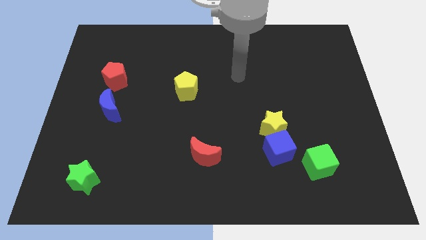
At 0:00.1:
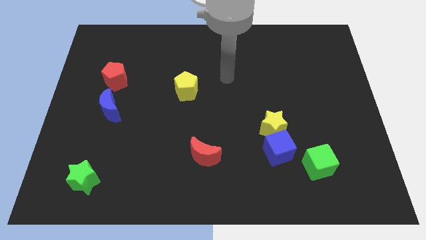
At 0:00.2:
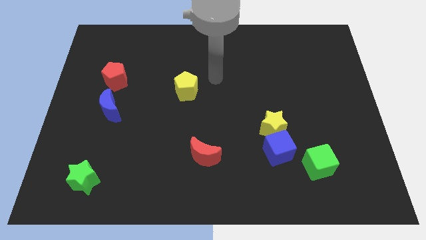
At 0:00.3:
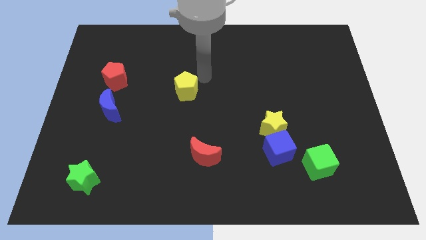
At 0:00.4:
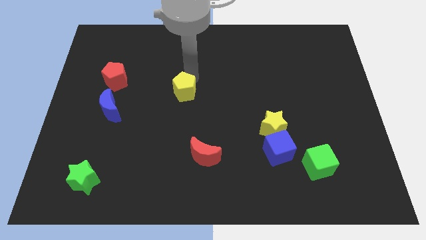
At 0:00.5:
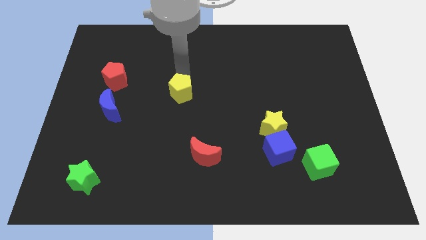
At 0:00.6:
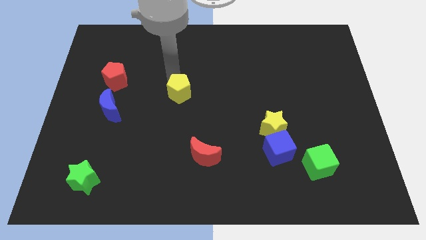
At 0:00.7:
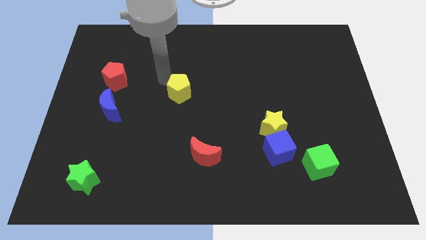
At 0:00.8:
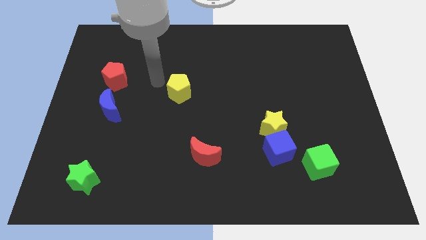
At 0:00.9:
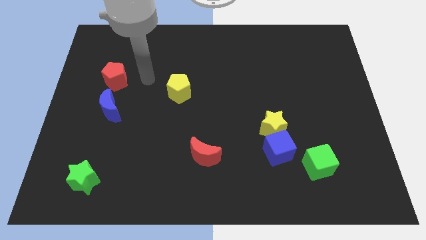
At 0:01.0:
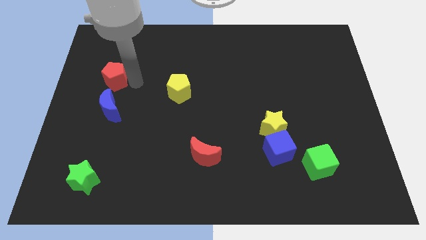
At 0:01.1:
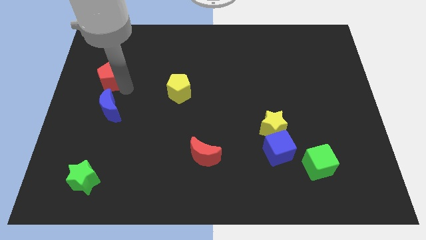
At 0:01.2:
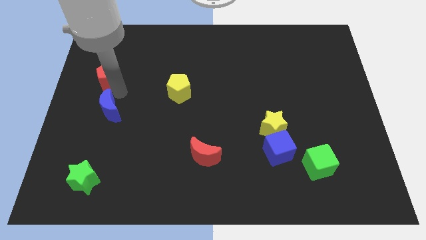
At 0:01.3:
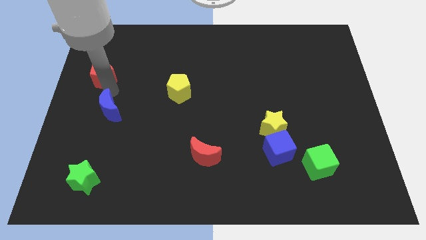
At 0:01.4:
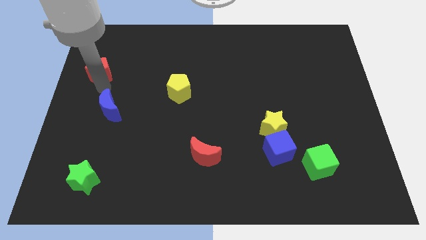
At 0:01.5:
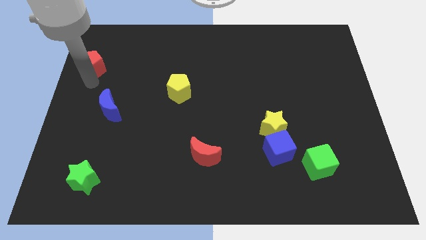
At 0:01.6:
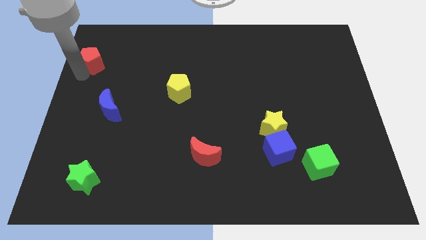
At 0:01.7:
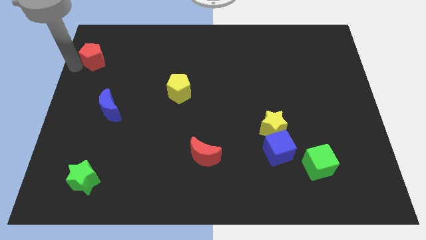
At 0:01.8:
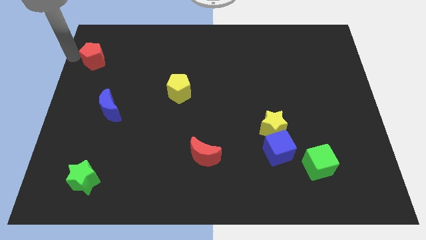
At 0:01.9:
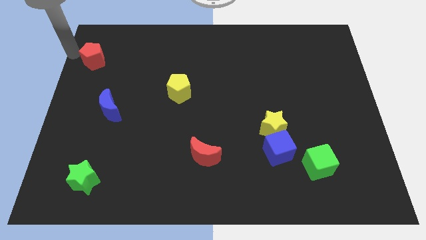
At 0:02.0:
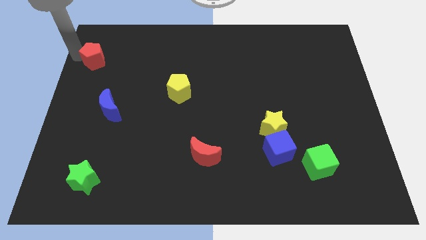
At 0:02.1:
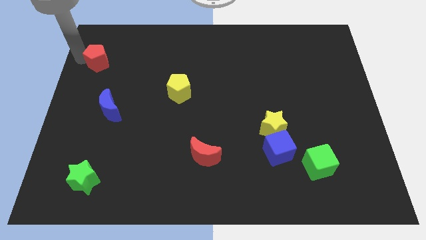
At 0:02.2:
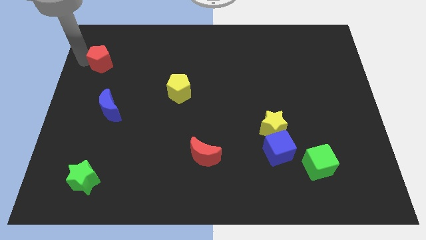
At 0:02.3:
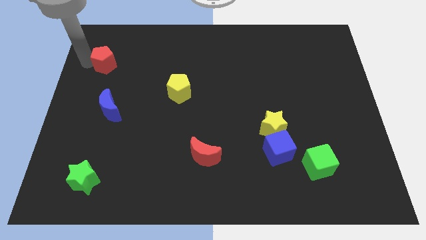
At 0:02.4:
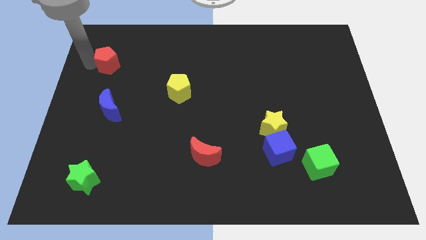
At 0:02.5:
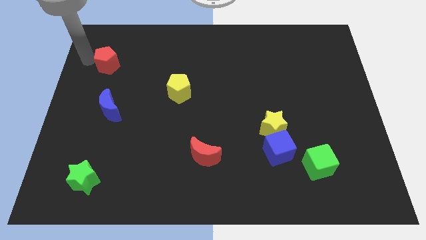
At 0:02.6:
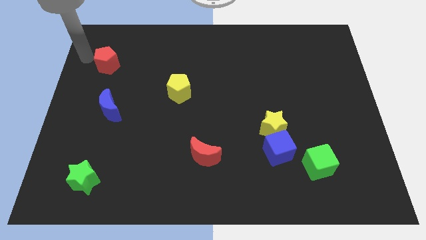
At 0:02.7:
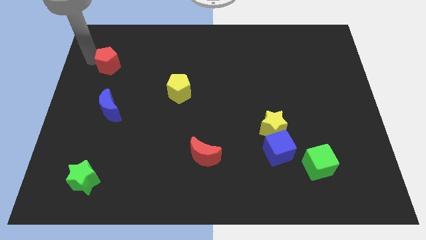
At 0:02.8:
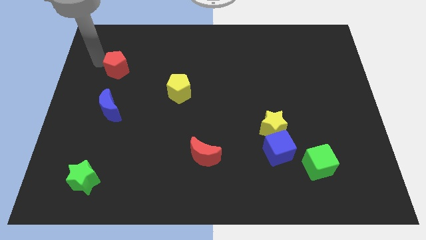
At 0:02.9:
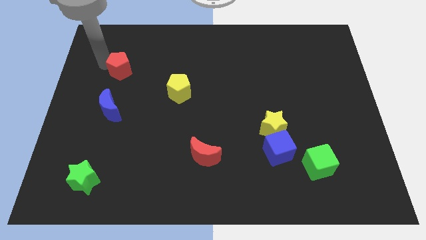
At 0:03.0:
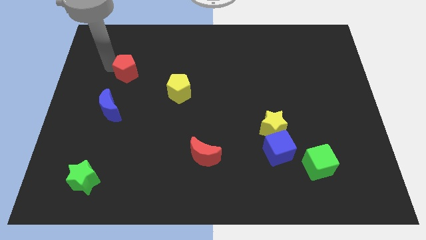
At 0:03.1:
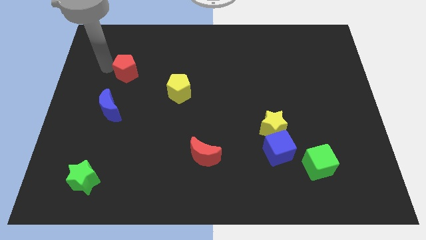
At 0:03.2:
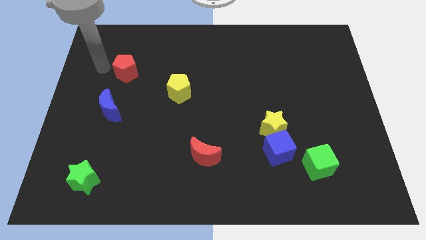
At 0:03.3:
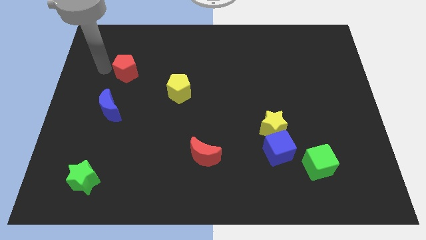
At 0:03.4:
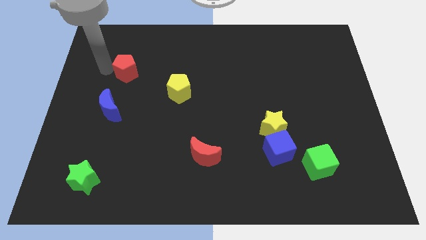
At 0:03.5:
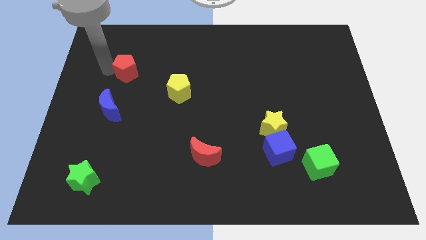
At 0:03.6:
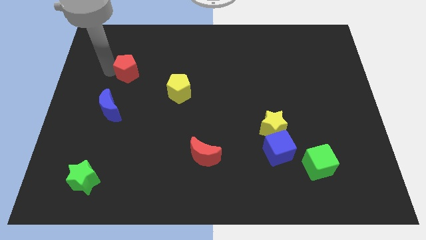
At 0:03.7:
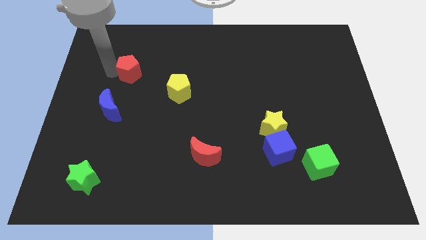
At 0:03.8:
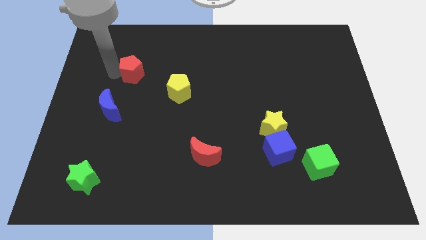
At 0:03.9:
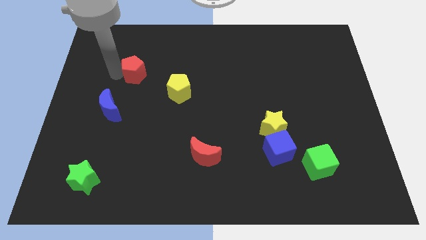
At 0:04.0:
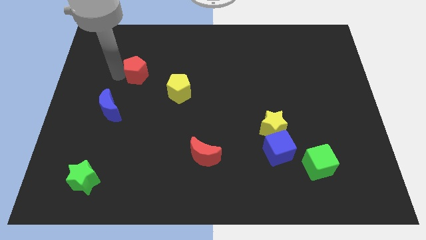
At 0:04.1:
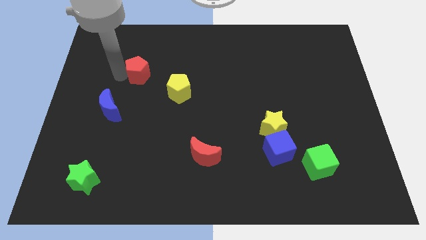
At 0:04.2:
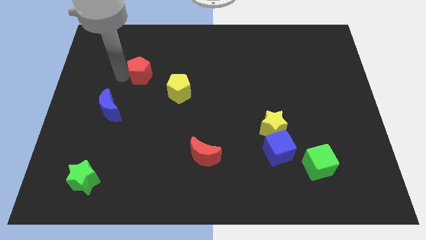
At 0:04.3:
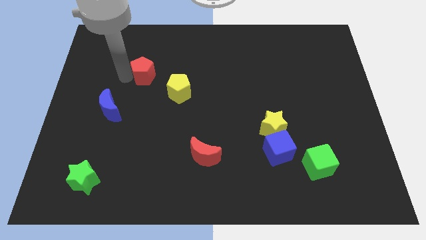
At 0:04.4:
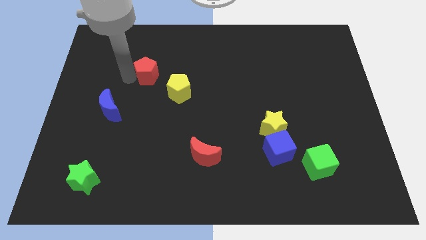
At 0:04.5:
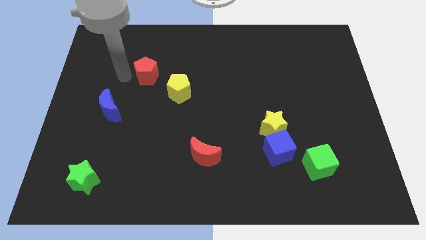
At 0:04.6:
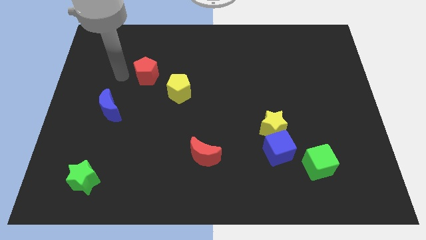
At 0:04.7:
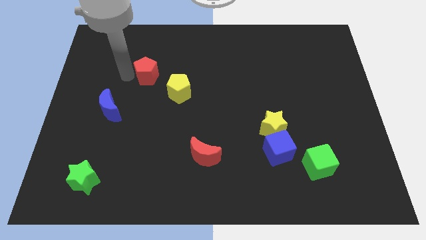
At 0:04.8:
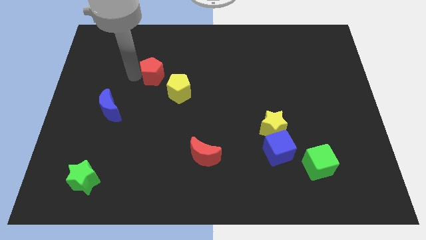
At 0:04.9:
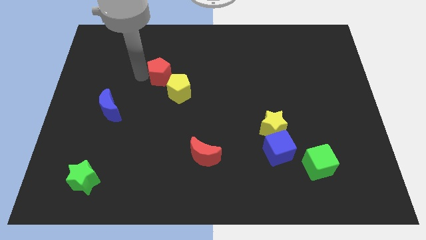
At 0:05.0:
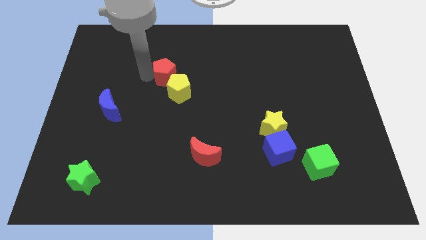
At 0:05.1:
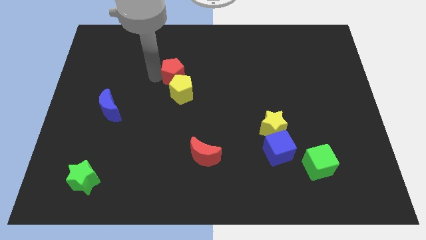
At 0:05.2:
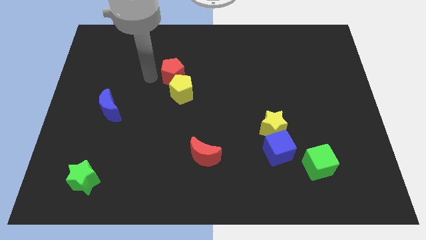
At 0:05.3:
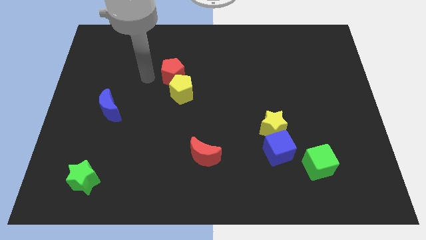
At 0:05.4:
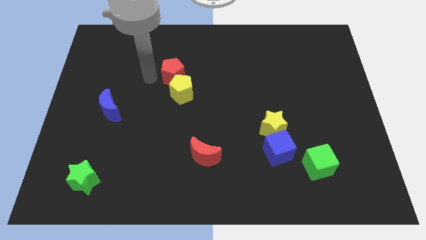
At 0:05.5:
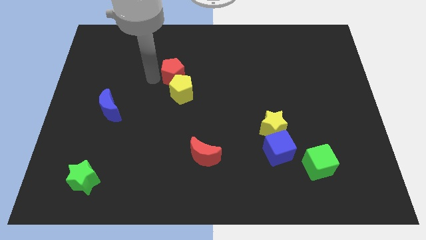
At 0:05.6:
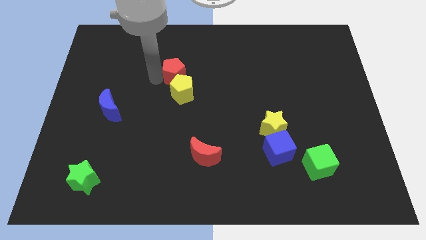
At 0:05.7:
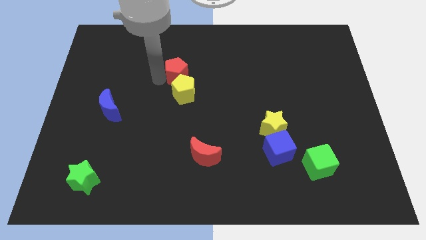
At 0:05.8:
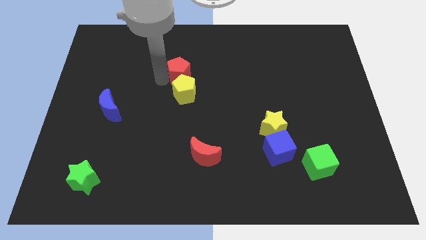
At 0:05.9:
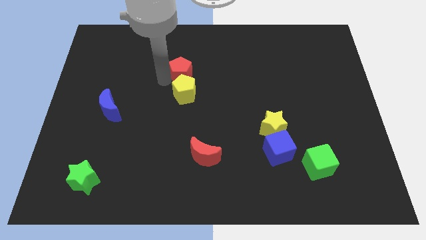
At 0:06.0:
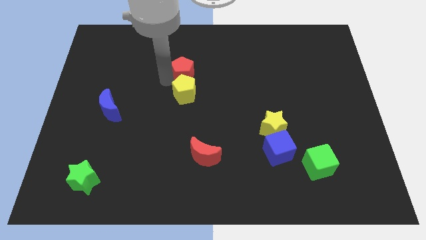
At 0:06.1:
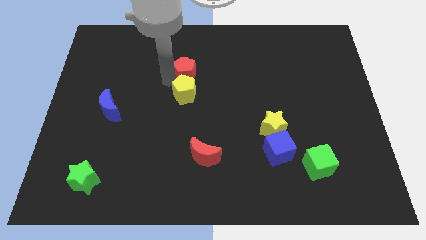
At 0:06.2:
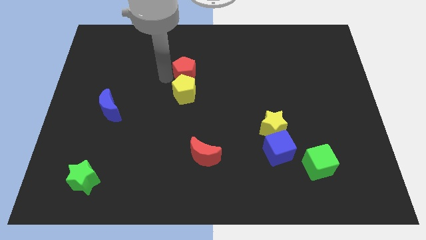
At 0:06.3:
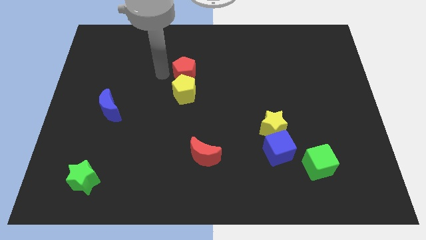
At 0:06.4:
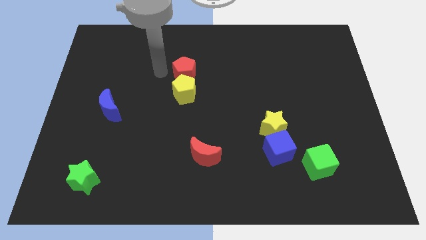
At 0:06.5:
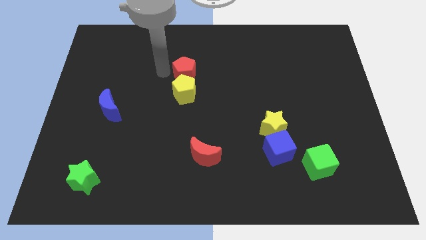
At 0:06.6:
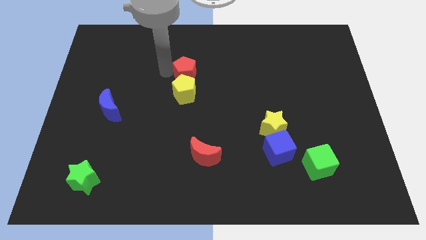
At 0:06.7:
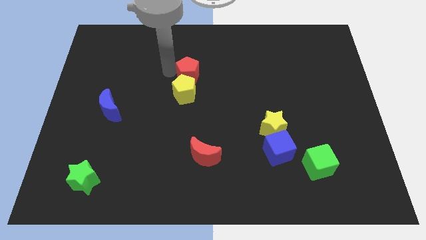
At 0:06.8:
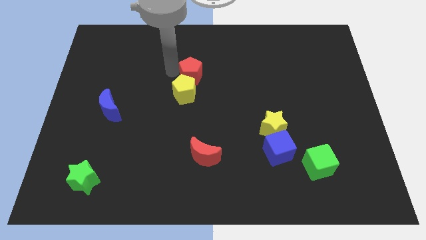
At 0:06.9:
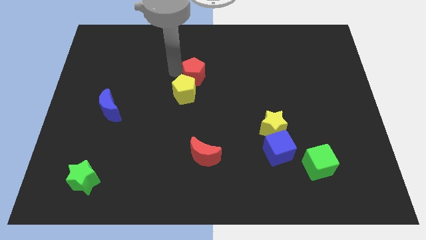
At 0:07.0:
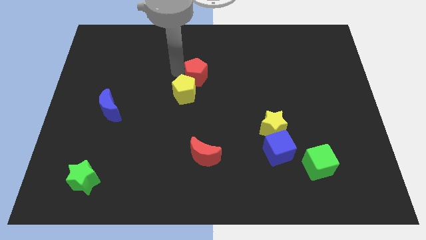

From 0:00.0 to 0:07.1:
move the red pentagon to the right

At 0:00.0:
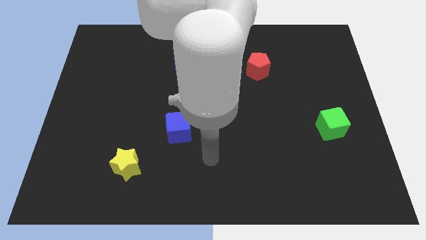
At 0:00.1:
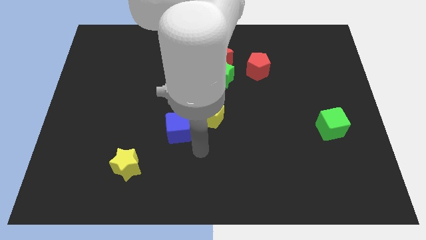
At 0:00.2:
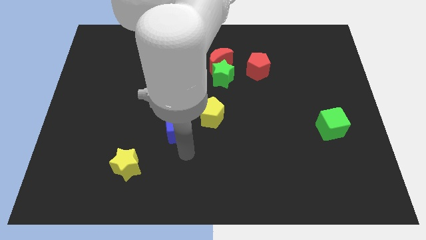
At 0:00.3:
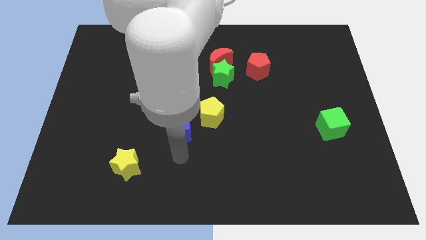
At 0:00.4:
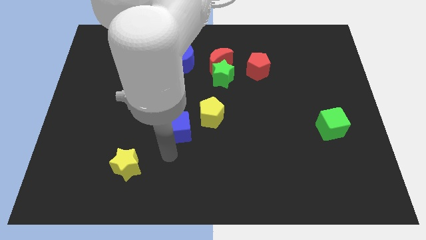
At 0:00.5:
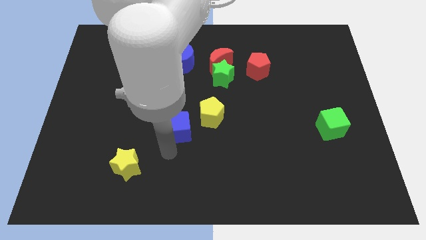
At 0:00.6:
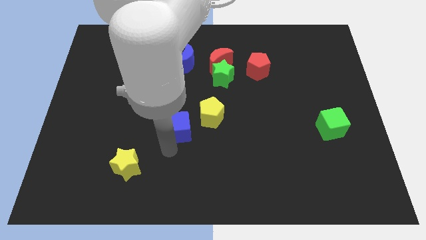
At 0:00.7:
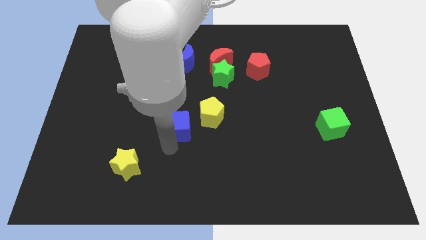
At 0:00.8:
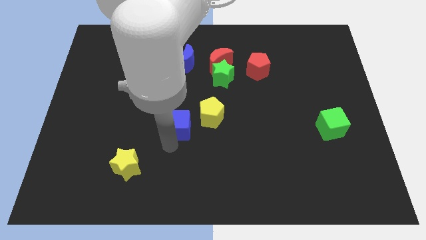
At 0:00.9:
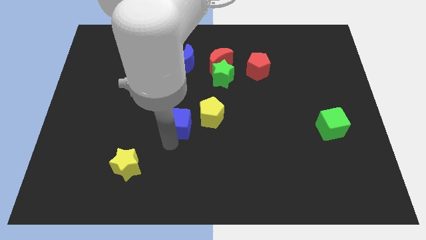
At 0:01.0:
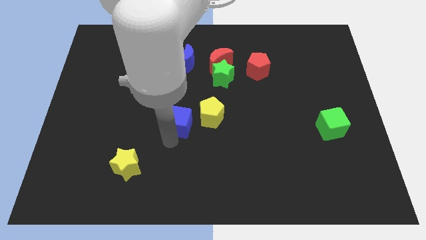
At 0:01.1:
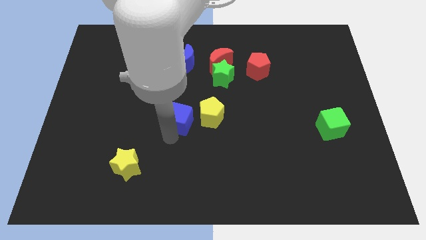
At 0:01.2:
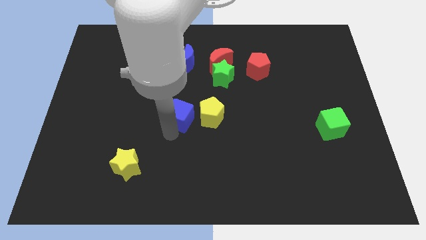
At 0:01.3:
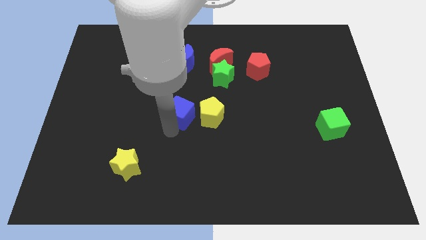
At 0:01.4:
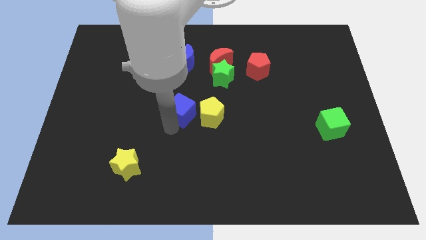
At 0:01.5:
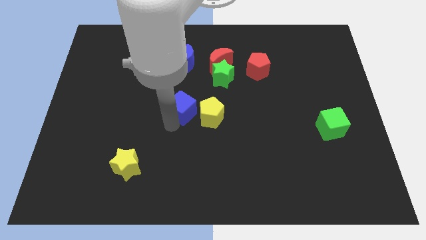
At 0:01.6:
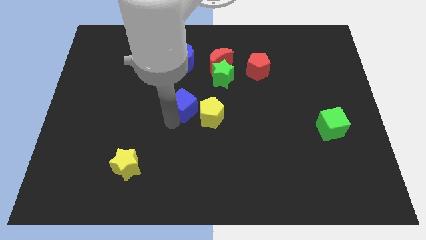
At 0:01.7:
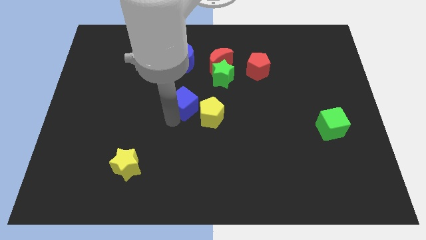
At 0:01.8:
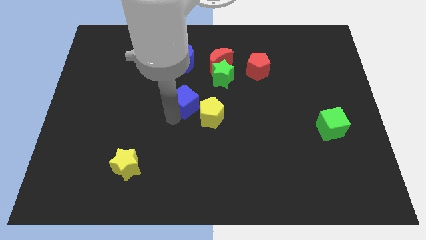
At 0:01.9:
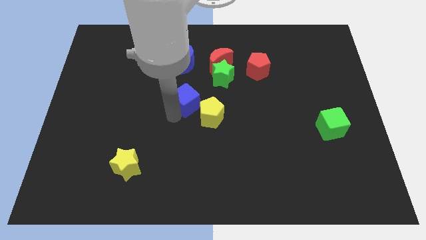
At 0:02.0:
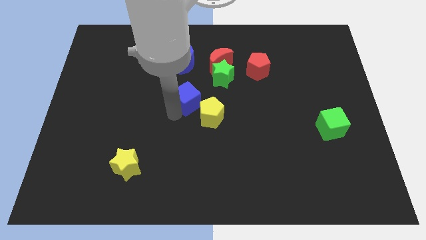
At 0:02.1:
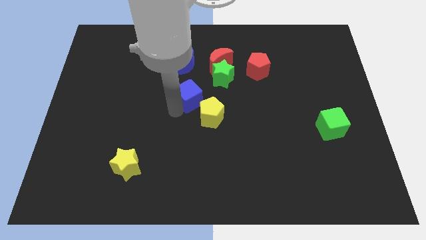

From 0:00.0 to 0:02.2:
slide the blue cube diagonally up and right somewhat
